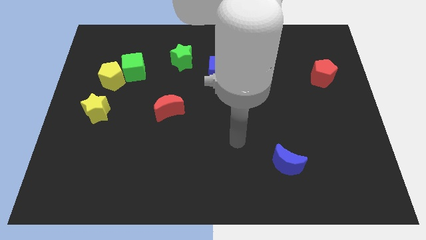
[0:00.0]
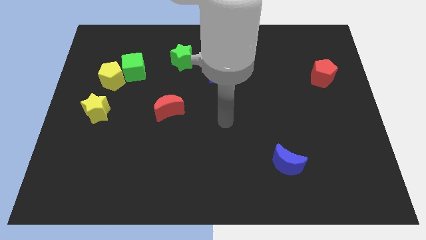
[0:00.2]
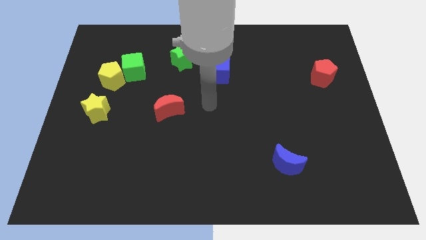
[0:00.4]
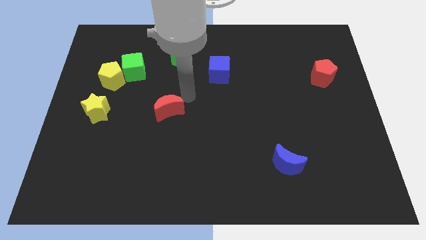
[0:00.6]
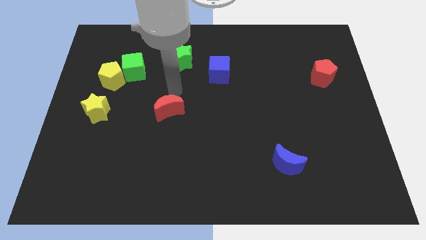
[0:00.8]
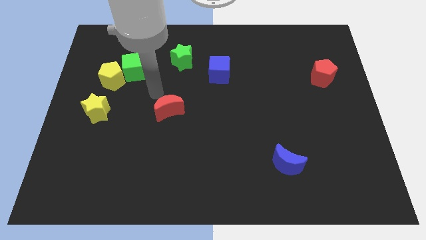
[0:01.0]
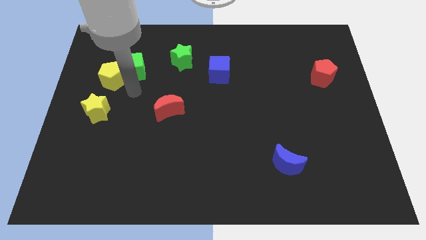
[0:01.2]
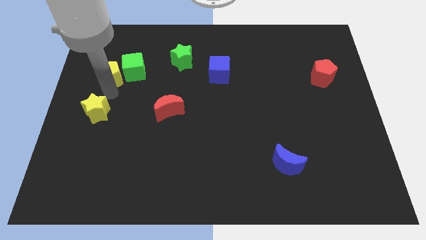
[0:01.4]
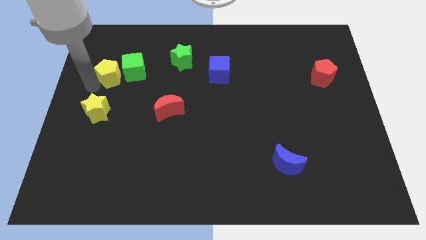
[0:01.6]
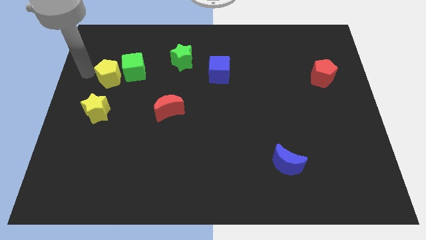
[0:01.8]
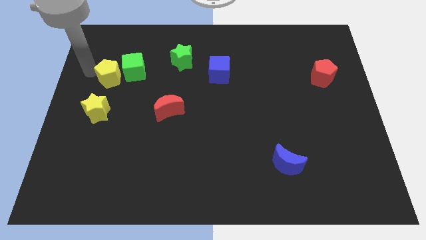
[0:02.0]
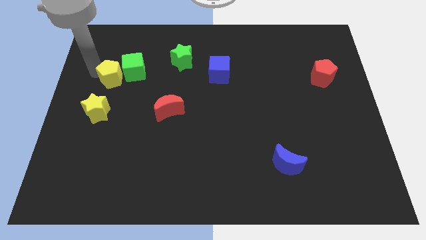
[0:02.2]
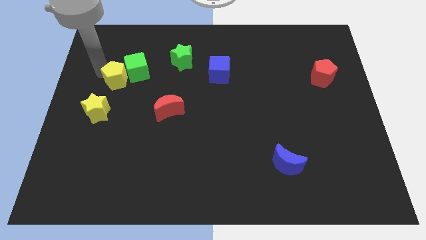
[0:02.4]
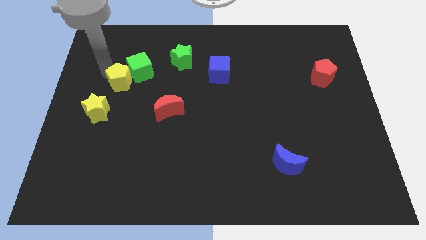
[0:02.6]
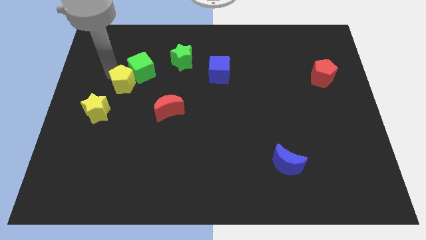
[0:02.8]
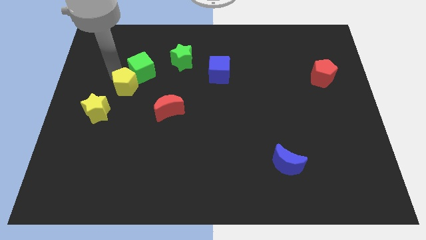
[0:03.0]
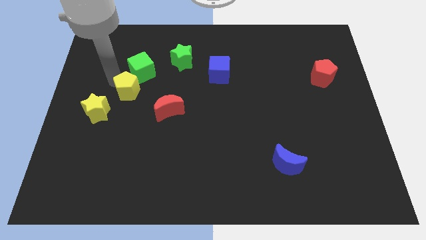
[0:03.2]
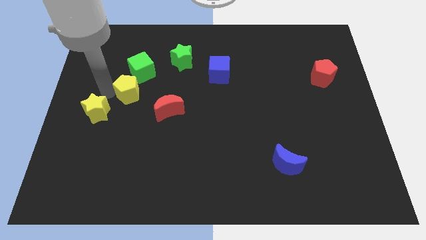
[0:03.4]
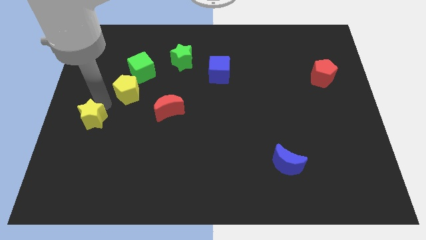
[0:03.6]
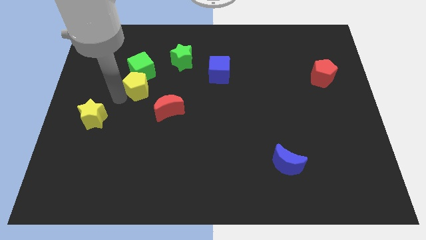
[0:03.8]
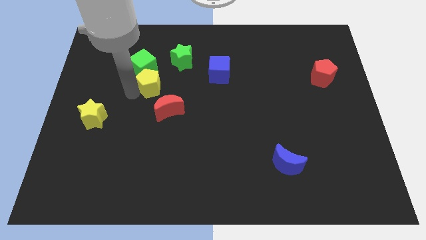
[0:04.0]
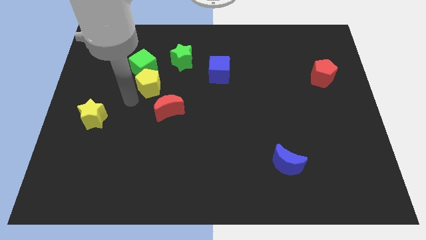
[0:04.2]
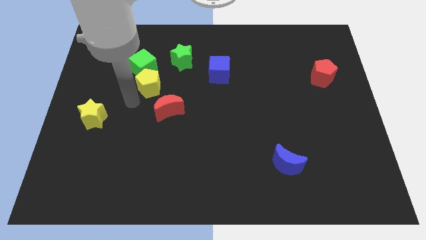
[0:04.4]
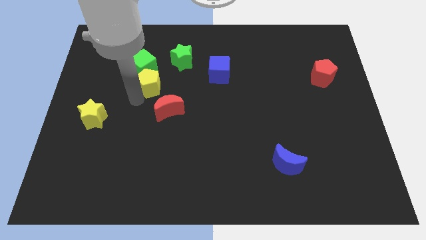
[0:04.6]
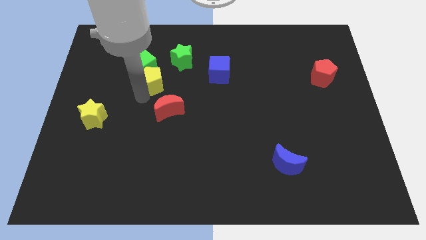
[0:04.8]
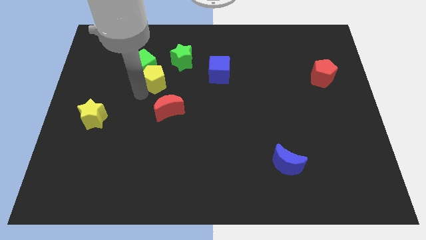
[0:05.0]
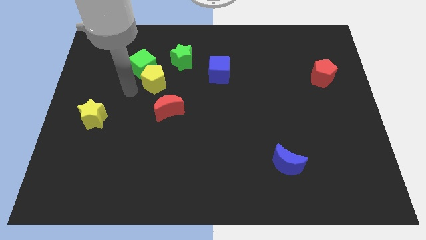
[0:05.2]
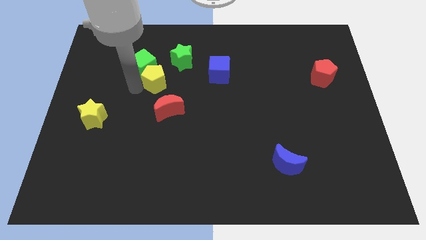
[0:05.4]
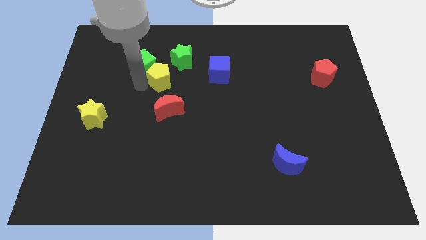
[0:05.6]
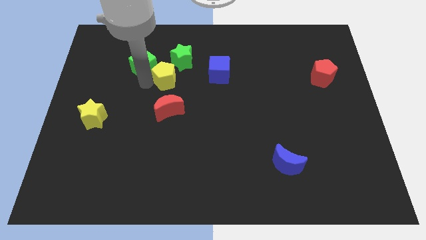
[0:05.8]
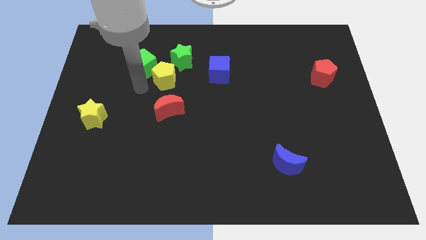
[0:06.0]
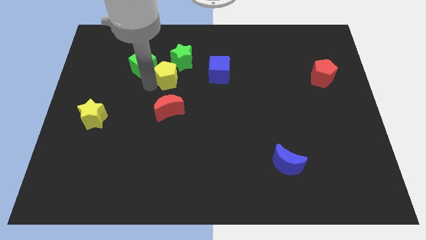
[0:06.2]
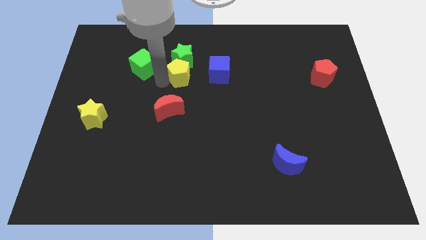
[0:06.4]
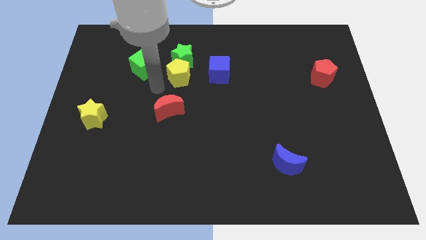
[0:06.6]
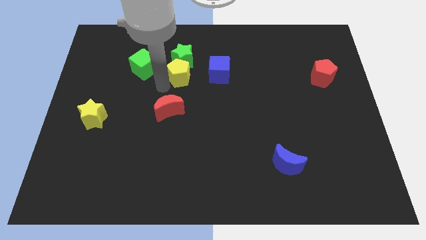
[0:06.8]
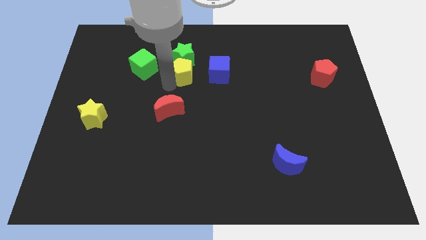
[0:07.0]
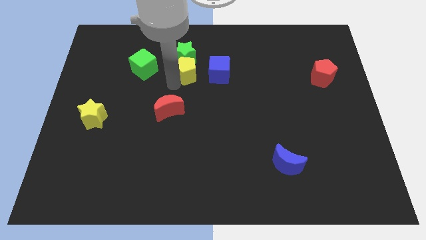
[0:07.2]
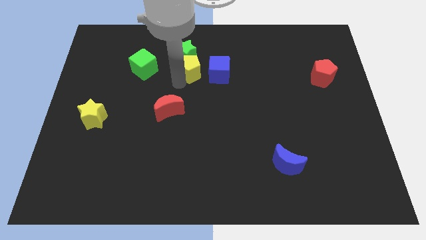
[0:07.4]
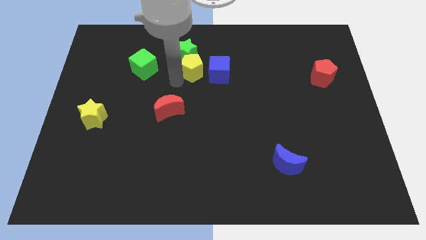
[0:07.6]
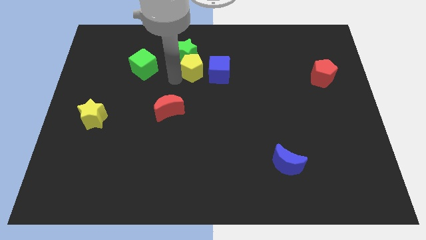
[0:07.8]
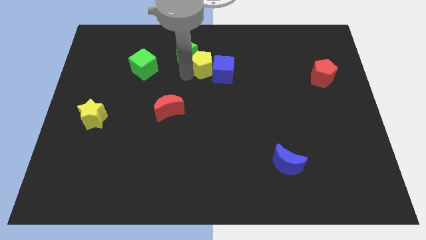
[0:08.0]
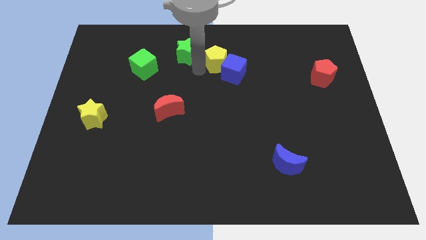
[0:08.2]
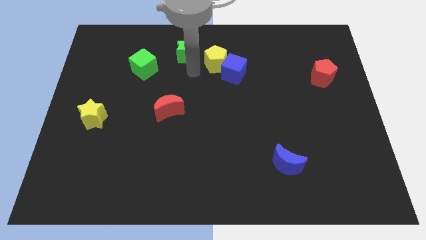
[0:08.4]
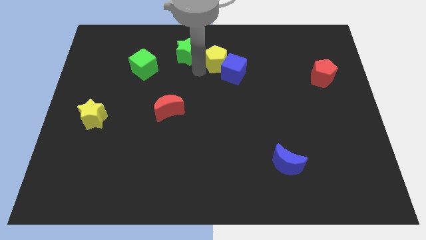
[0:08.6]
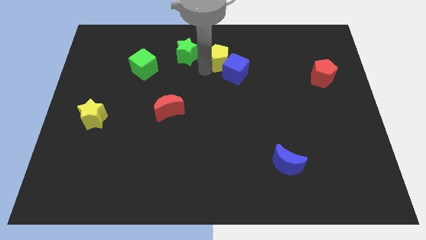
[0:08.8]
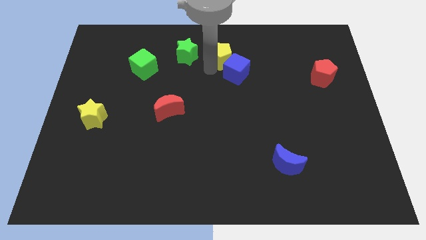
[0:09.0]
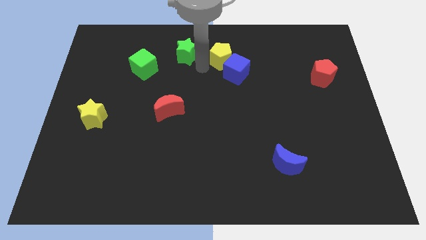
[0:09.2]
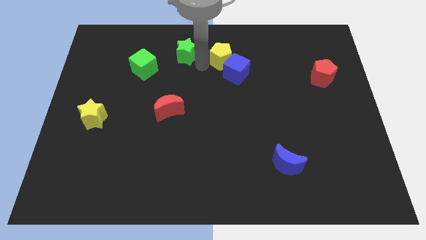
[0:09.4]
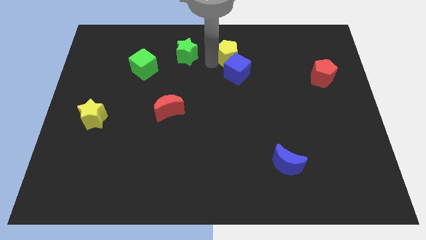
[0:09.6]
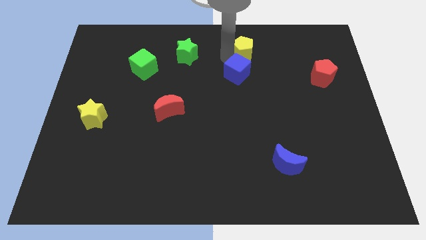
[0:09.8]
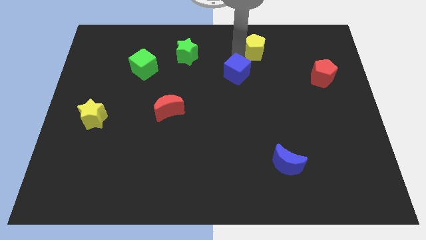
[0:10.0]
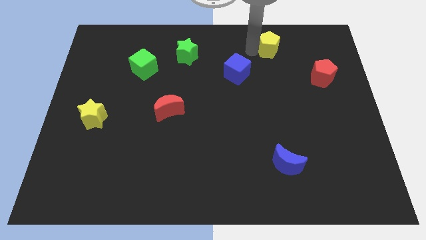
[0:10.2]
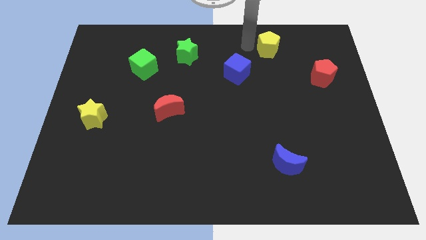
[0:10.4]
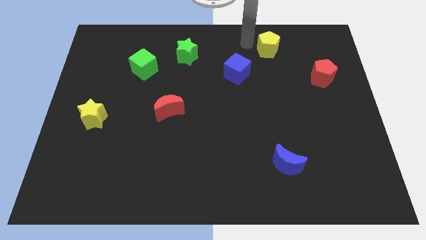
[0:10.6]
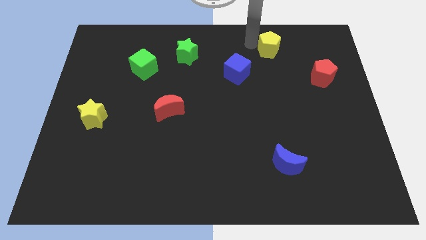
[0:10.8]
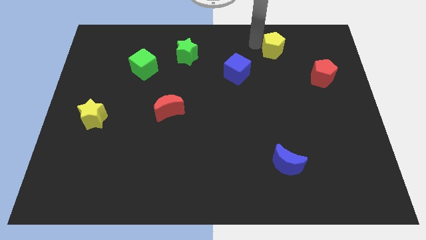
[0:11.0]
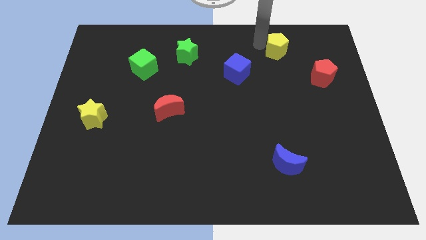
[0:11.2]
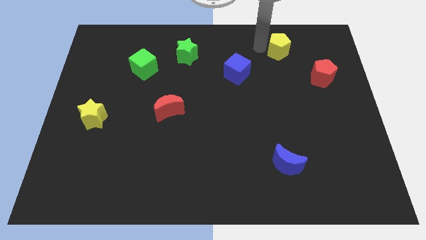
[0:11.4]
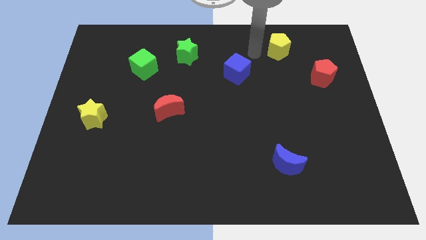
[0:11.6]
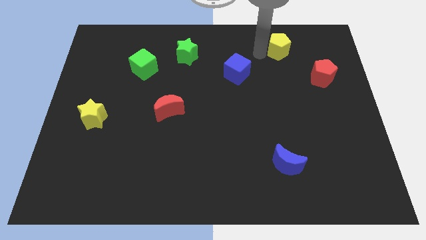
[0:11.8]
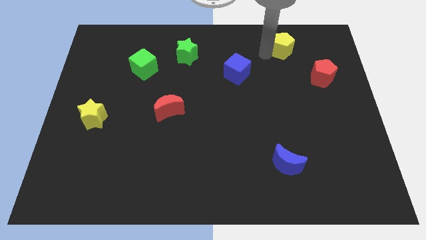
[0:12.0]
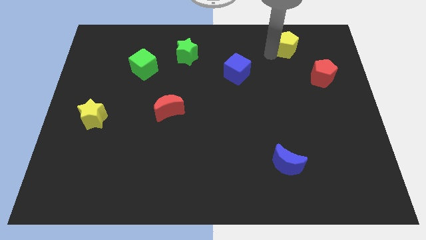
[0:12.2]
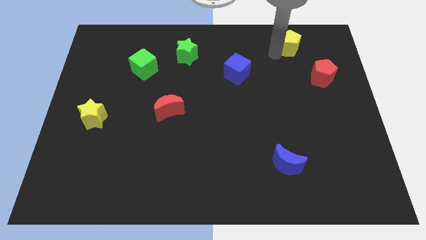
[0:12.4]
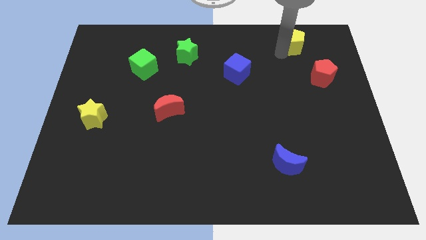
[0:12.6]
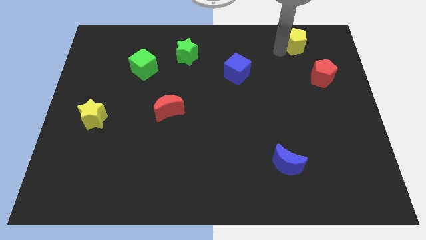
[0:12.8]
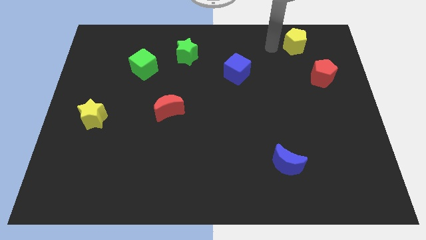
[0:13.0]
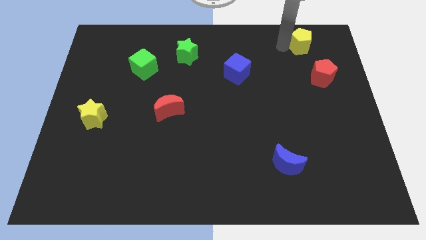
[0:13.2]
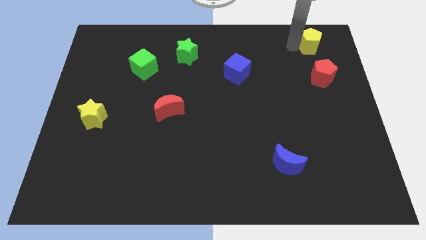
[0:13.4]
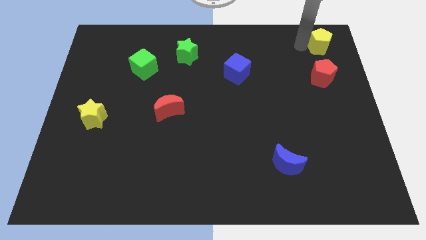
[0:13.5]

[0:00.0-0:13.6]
push the yellow pentagon to the top right corner

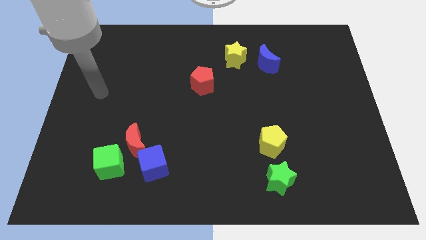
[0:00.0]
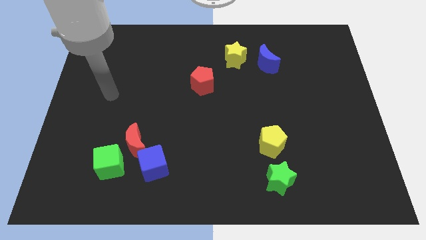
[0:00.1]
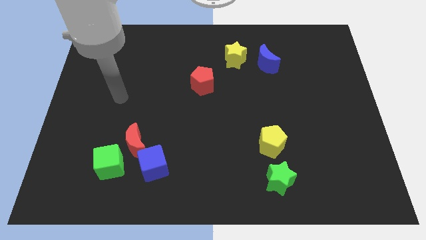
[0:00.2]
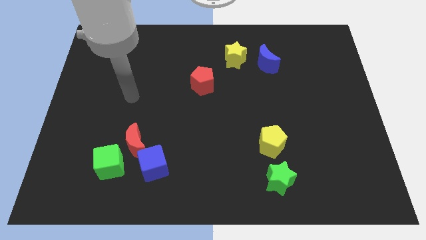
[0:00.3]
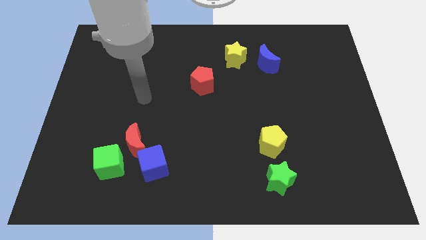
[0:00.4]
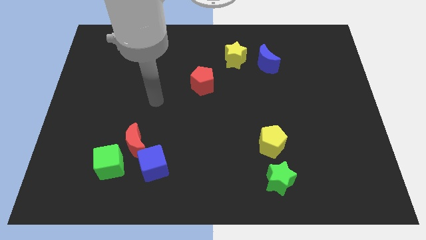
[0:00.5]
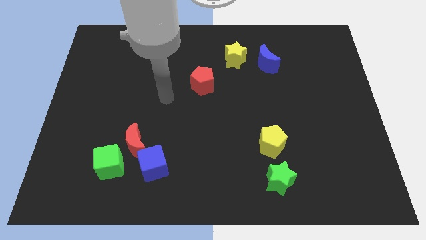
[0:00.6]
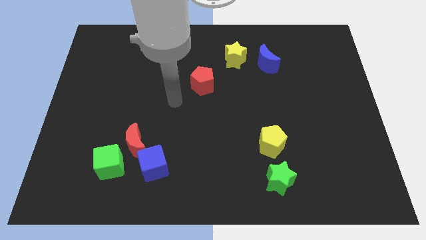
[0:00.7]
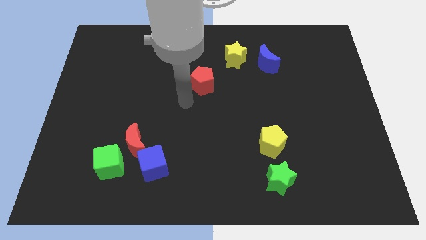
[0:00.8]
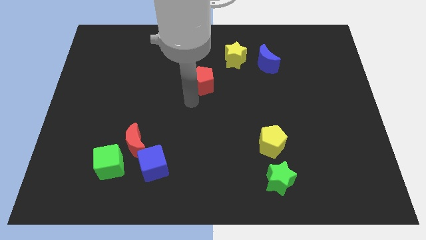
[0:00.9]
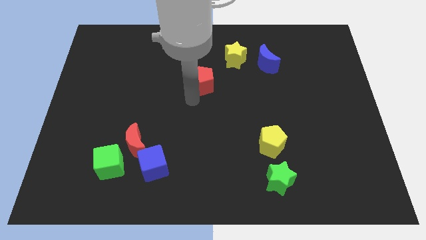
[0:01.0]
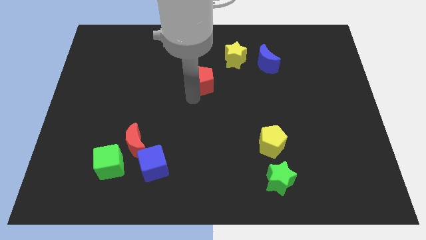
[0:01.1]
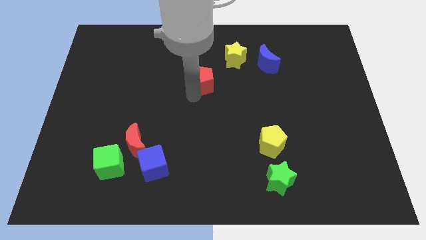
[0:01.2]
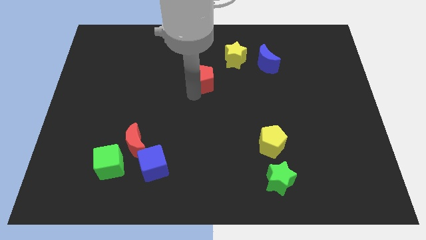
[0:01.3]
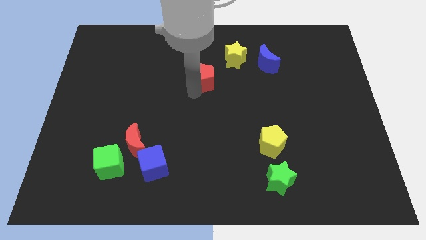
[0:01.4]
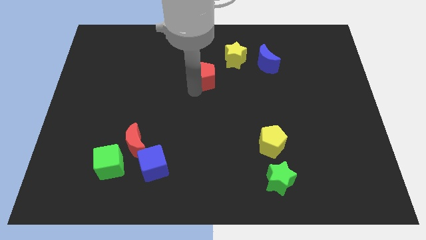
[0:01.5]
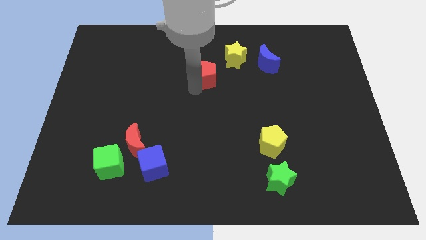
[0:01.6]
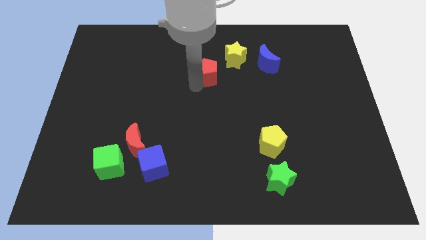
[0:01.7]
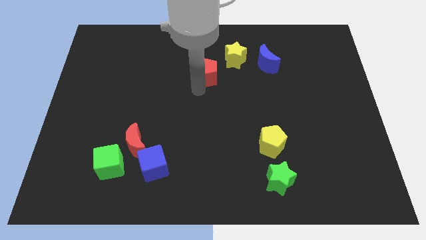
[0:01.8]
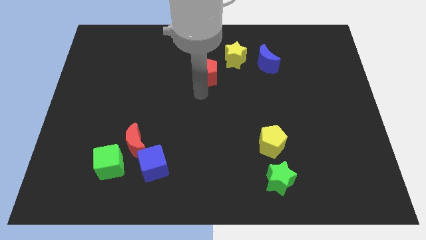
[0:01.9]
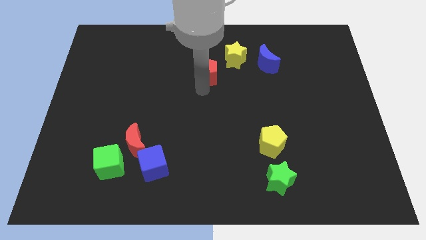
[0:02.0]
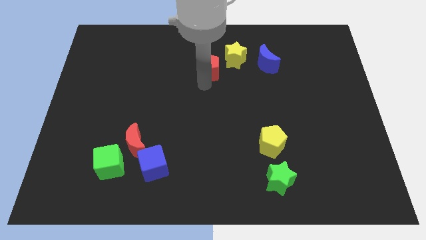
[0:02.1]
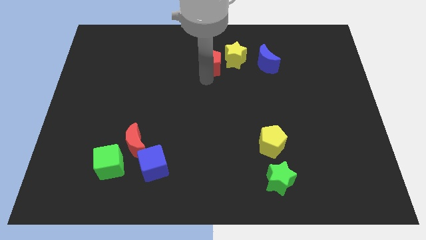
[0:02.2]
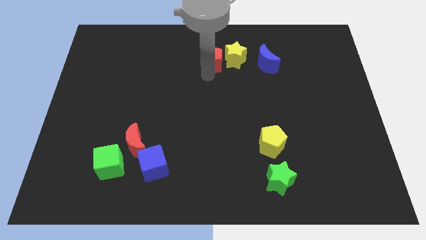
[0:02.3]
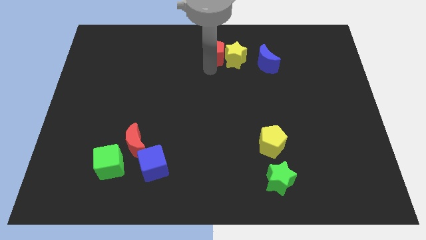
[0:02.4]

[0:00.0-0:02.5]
move the red pentagon to the towards your base
